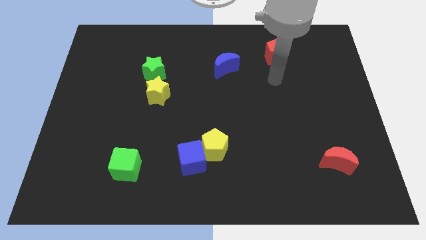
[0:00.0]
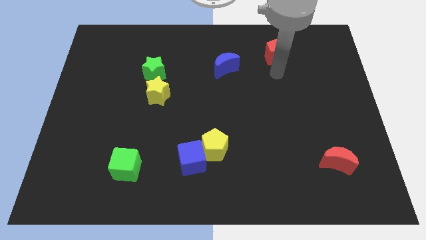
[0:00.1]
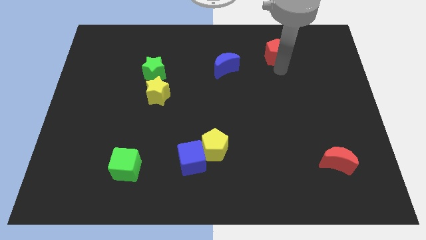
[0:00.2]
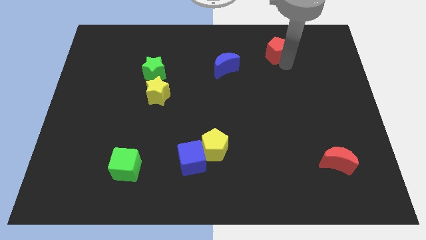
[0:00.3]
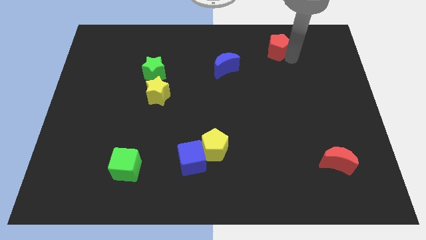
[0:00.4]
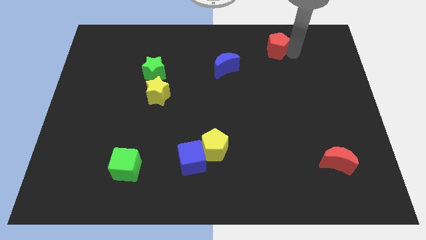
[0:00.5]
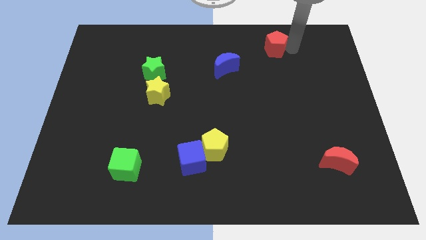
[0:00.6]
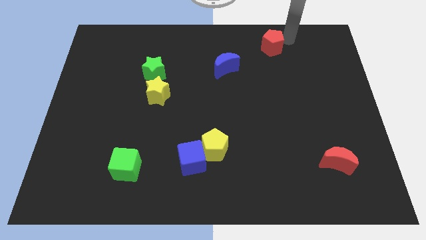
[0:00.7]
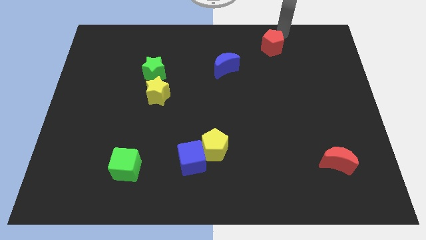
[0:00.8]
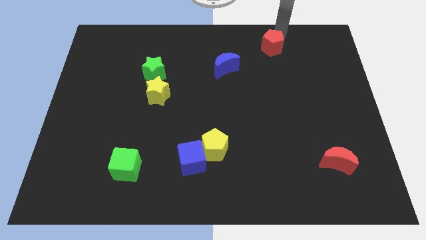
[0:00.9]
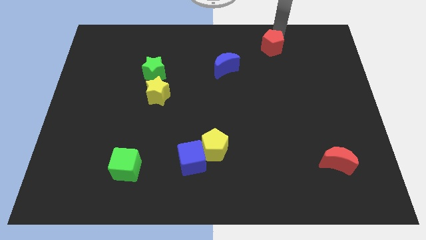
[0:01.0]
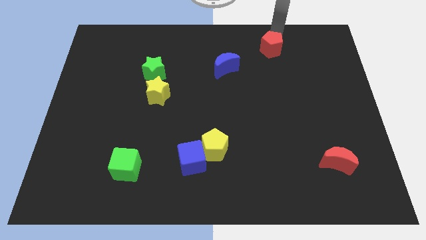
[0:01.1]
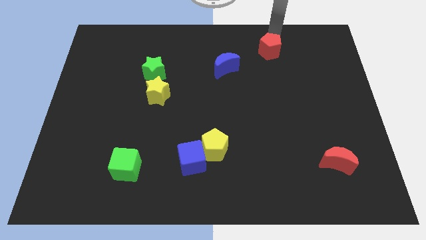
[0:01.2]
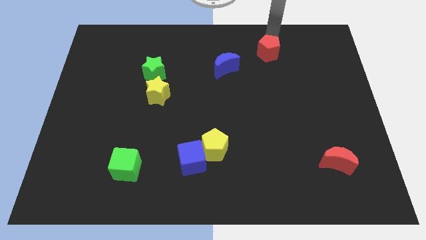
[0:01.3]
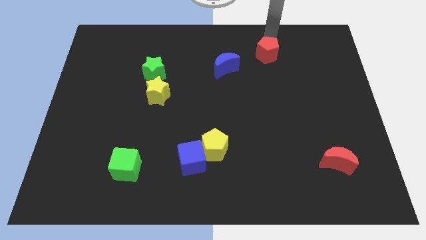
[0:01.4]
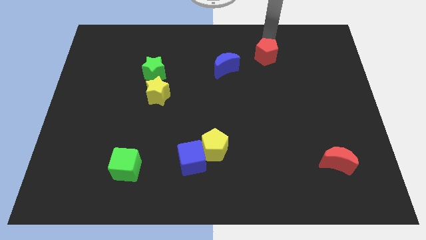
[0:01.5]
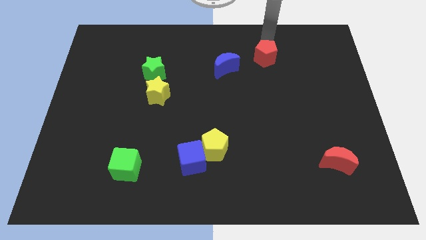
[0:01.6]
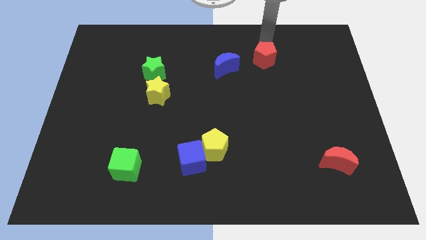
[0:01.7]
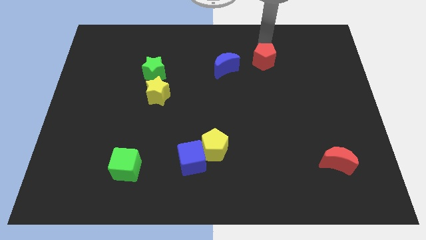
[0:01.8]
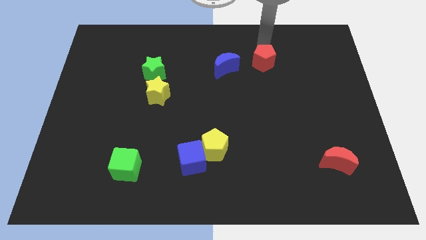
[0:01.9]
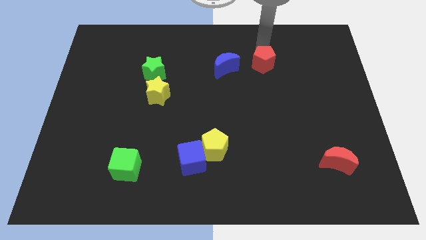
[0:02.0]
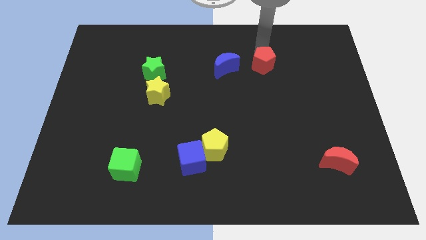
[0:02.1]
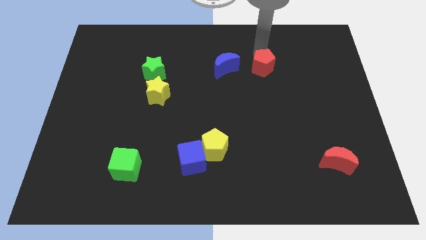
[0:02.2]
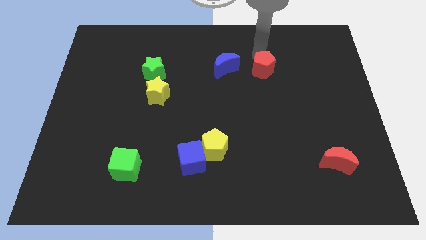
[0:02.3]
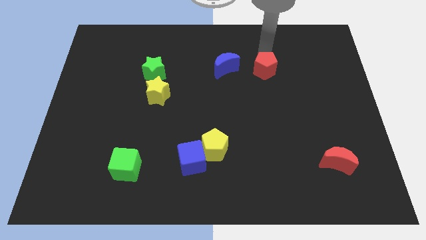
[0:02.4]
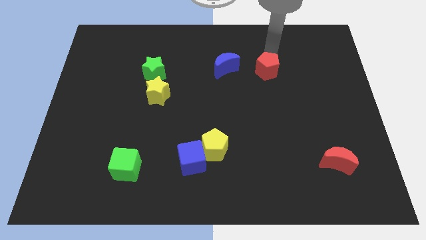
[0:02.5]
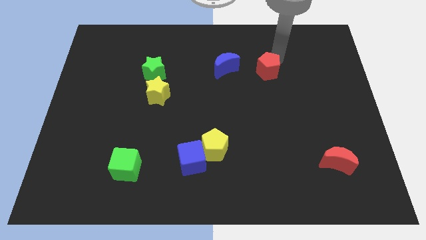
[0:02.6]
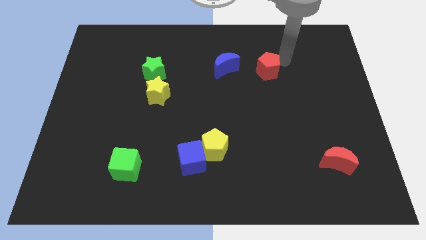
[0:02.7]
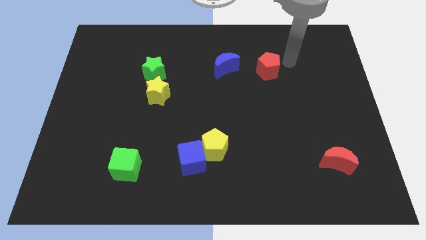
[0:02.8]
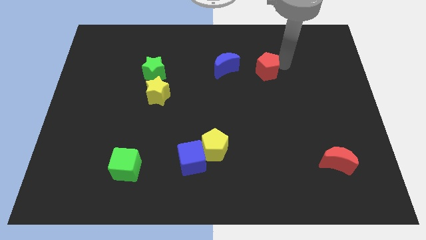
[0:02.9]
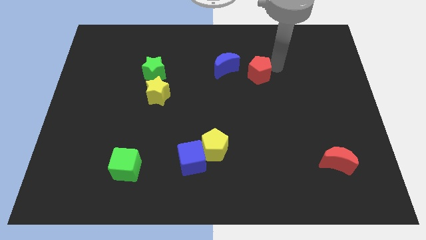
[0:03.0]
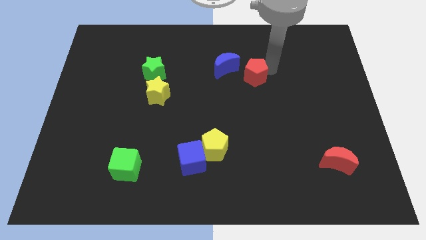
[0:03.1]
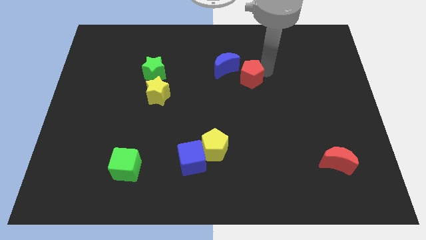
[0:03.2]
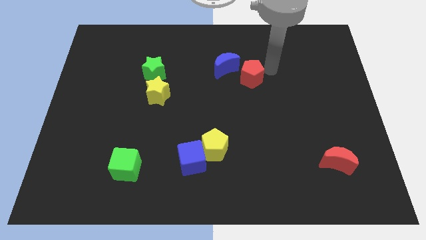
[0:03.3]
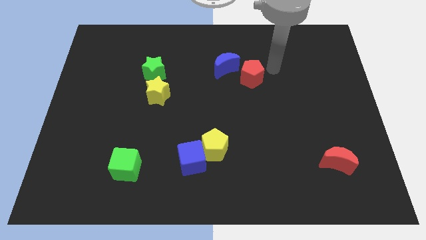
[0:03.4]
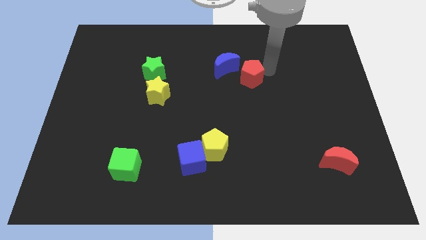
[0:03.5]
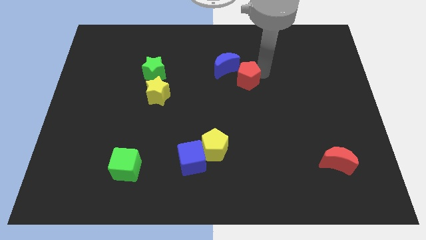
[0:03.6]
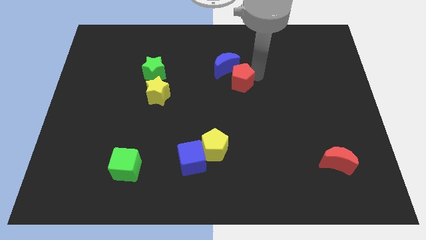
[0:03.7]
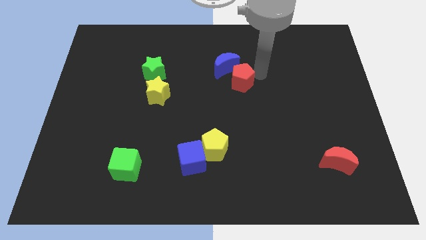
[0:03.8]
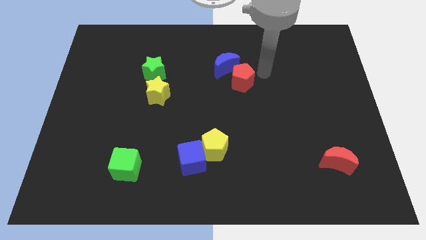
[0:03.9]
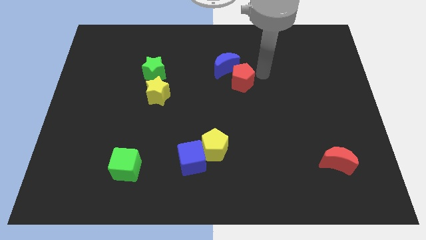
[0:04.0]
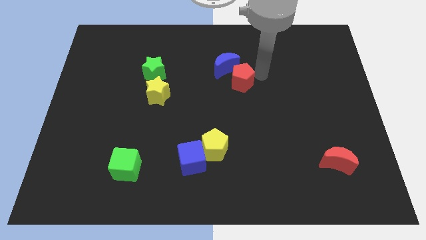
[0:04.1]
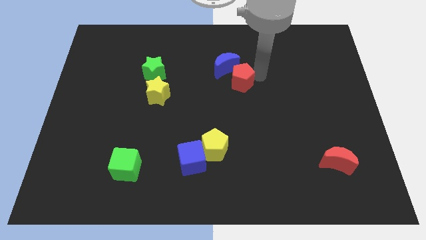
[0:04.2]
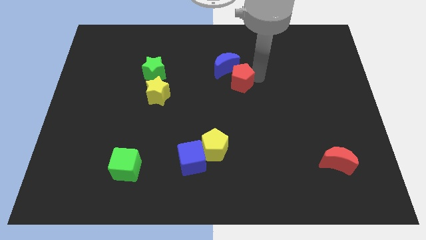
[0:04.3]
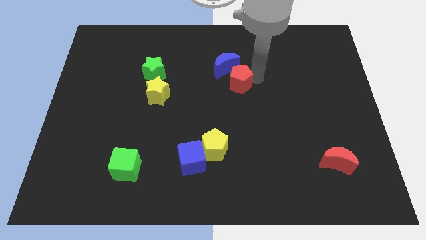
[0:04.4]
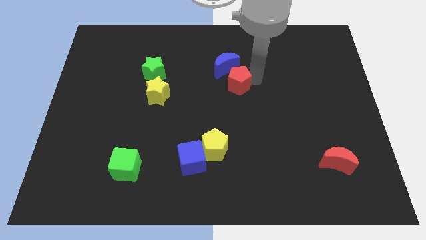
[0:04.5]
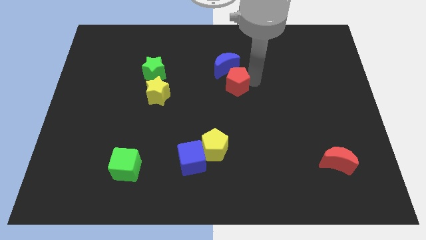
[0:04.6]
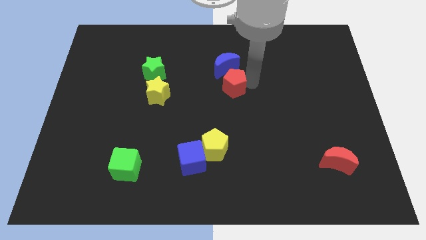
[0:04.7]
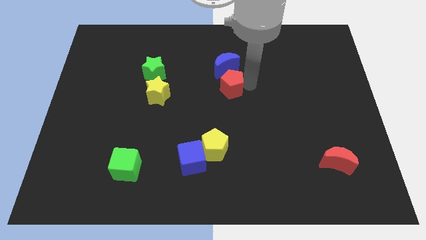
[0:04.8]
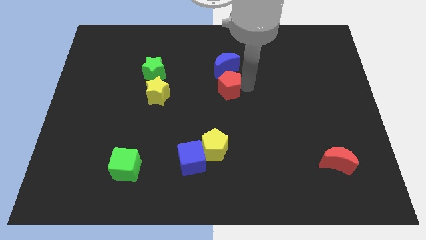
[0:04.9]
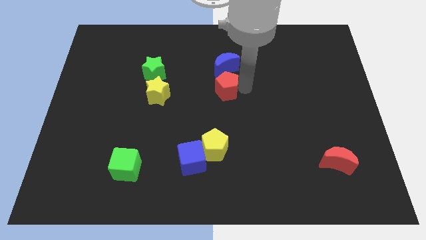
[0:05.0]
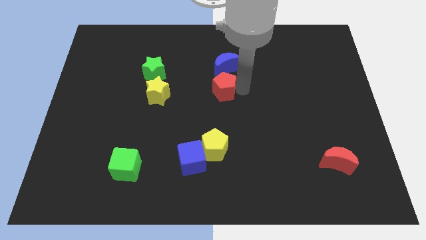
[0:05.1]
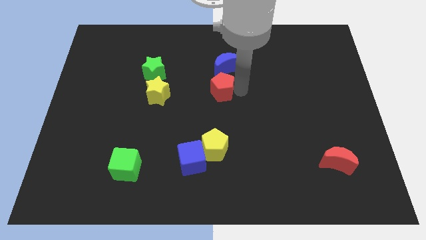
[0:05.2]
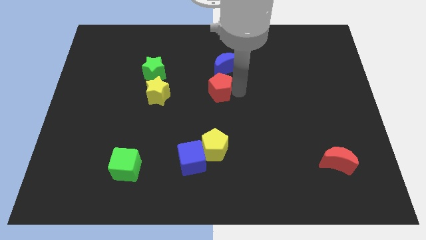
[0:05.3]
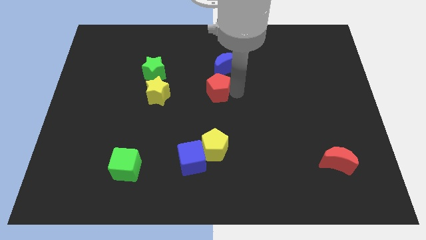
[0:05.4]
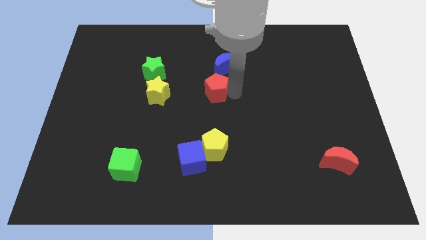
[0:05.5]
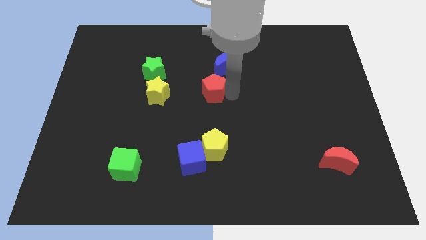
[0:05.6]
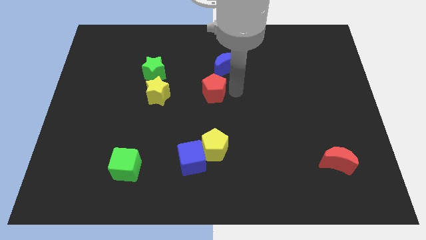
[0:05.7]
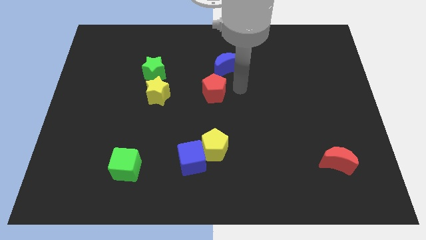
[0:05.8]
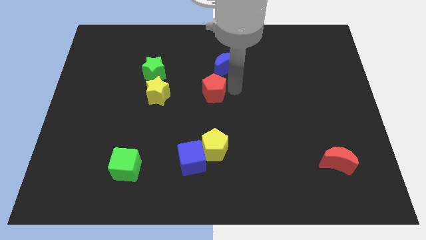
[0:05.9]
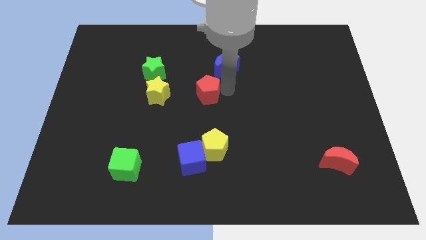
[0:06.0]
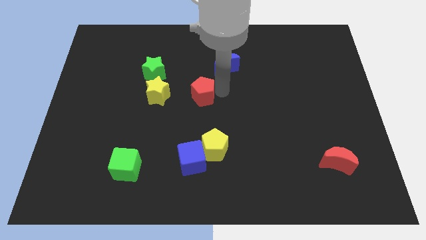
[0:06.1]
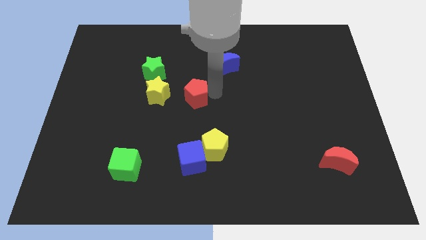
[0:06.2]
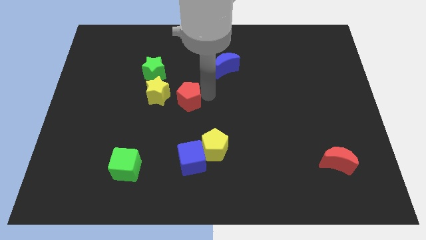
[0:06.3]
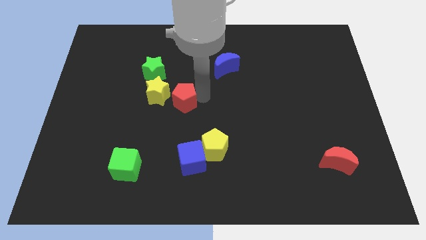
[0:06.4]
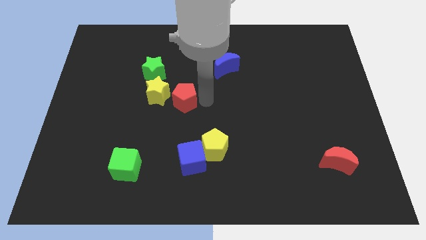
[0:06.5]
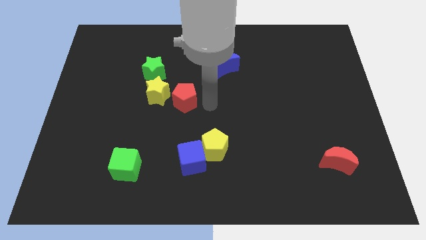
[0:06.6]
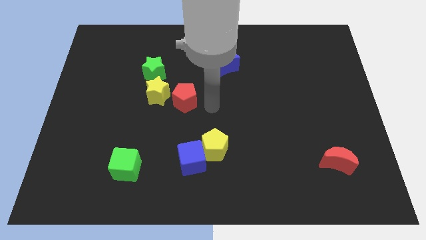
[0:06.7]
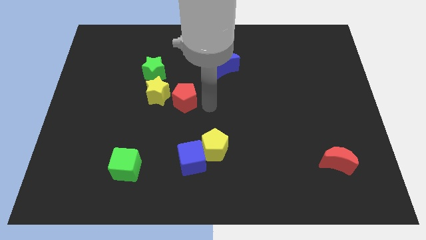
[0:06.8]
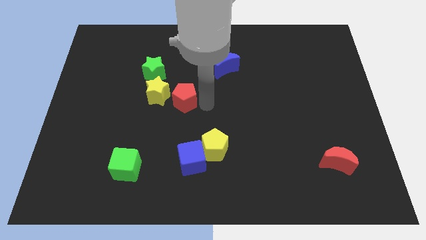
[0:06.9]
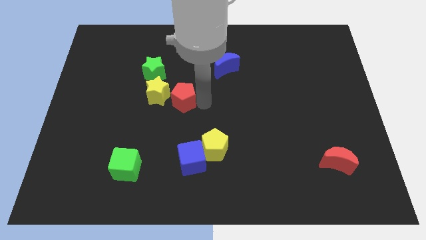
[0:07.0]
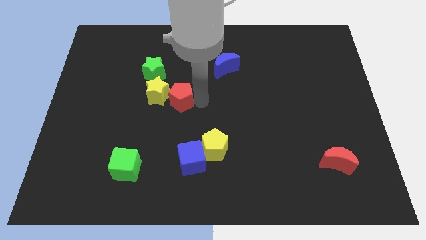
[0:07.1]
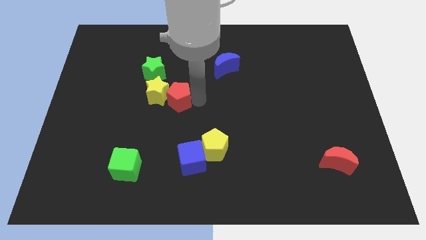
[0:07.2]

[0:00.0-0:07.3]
put the red pentagon close to the yellow star

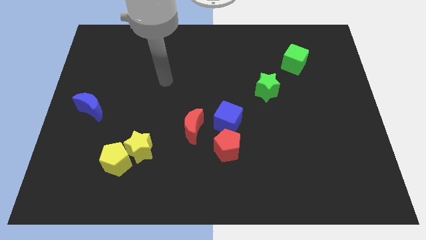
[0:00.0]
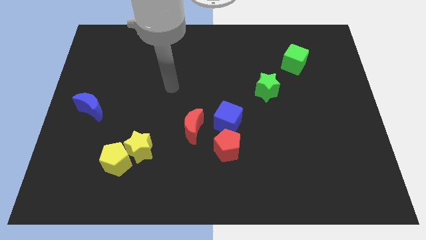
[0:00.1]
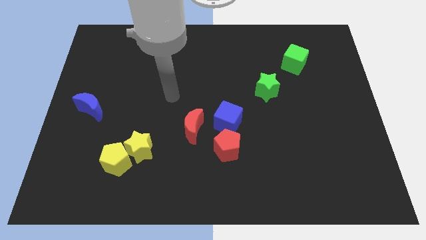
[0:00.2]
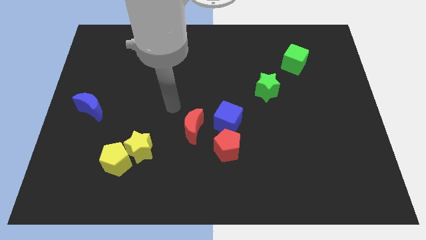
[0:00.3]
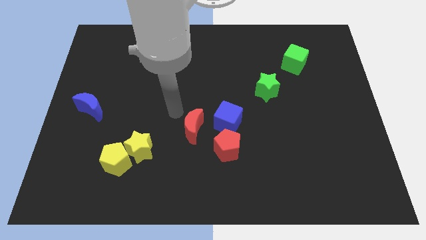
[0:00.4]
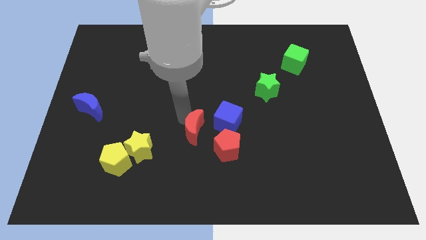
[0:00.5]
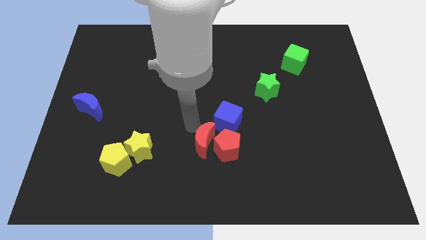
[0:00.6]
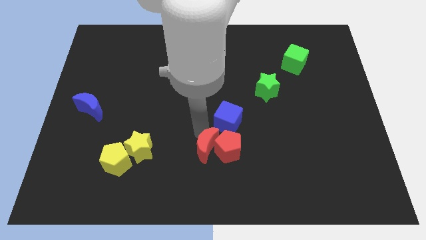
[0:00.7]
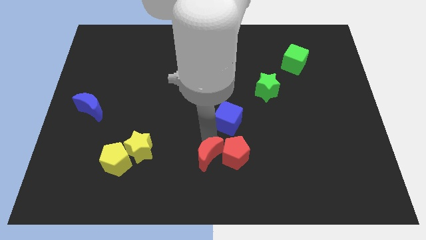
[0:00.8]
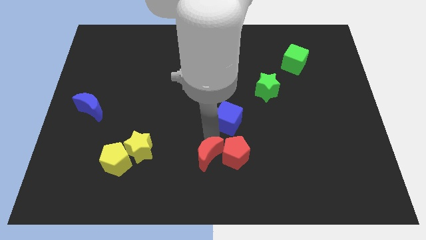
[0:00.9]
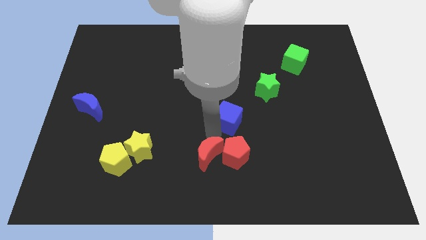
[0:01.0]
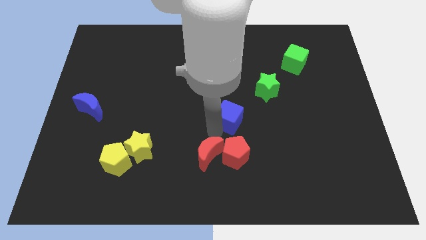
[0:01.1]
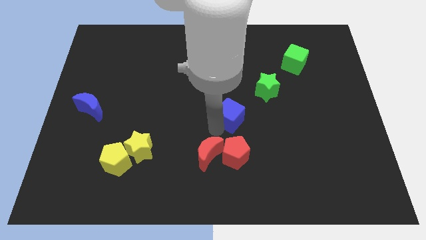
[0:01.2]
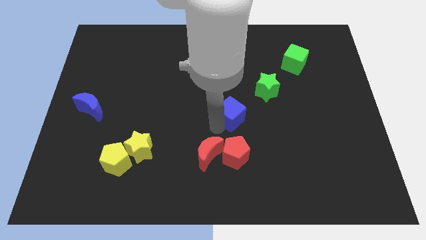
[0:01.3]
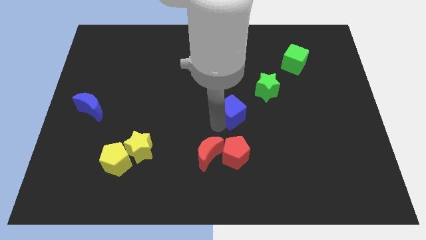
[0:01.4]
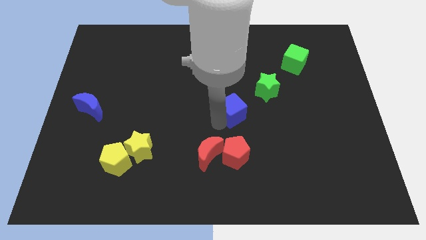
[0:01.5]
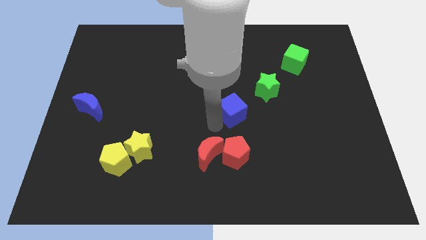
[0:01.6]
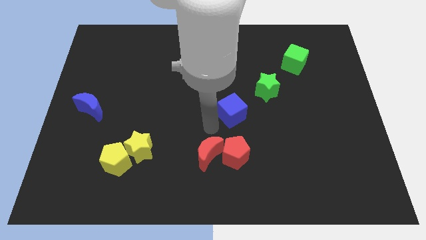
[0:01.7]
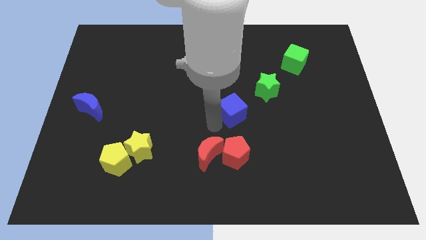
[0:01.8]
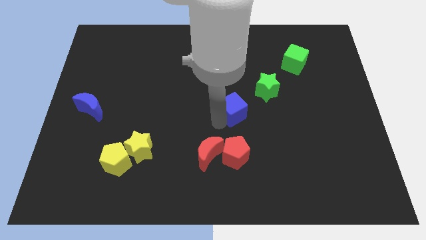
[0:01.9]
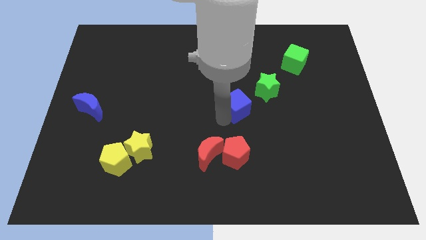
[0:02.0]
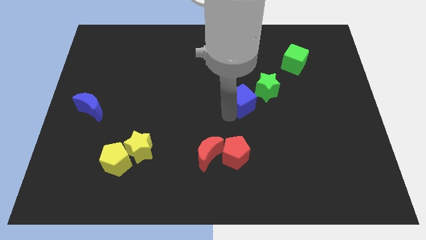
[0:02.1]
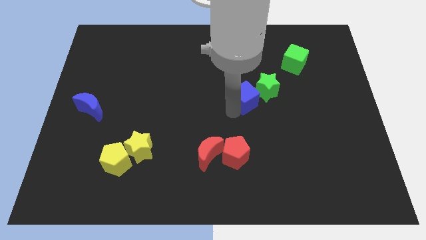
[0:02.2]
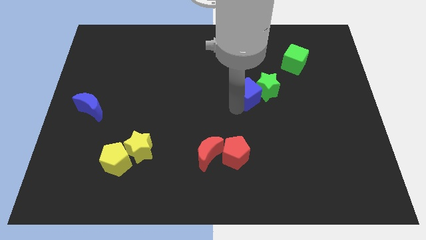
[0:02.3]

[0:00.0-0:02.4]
put the blue cube to the green star
